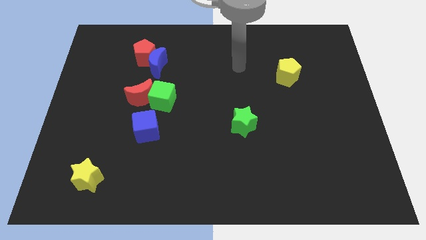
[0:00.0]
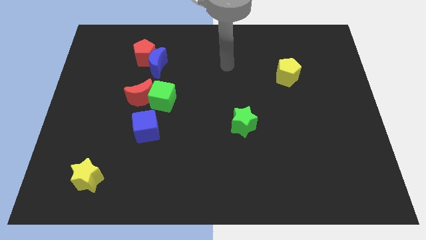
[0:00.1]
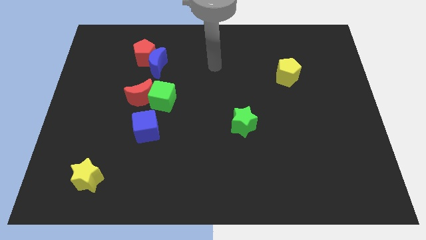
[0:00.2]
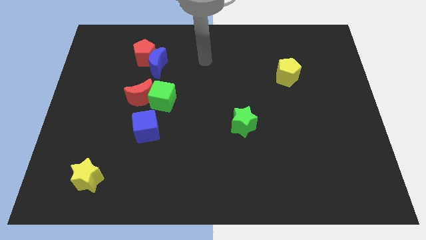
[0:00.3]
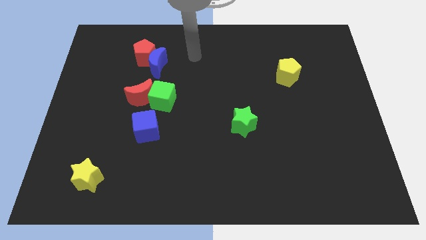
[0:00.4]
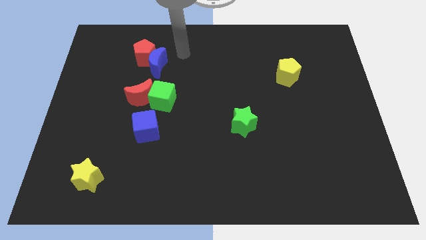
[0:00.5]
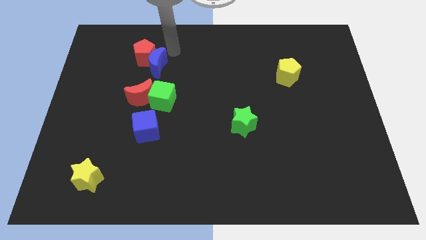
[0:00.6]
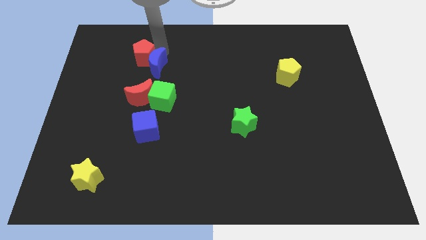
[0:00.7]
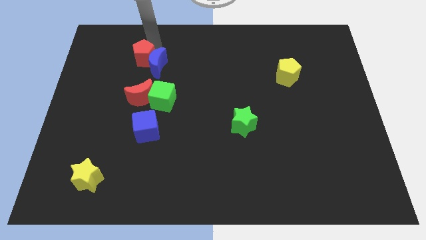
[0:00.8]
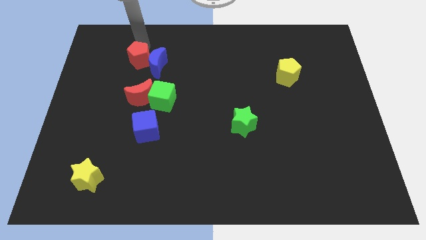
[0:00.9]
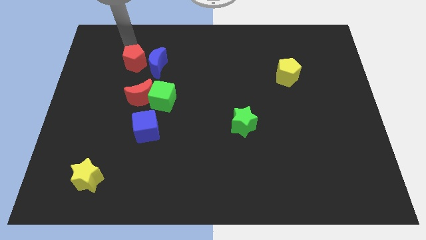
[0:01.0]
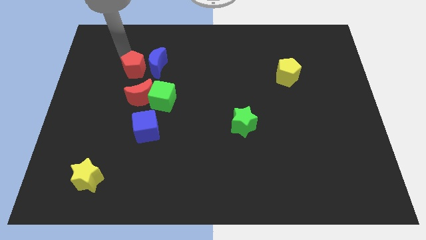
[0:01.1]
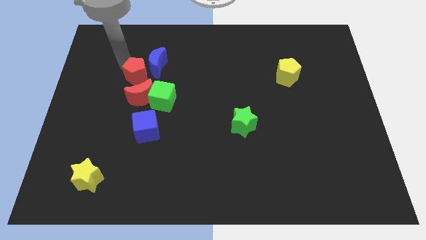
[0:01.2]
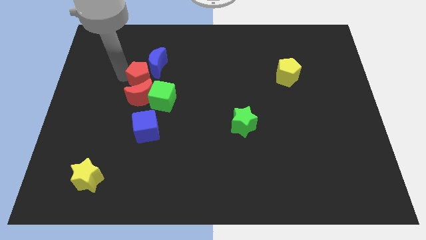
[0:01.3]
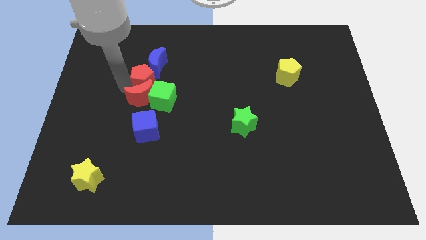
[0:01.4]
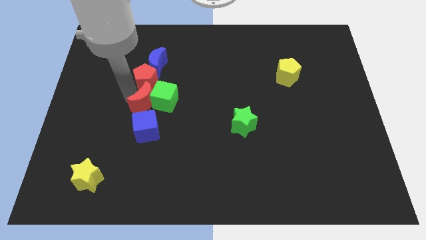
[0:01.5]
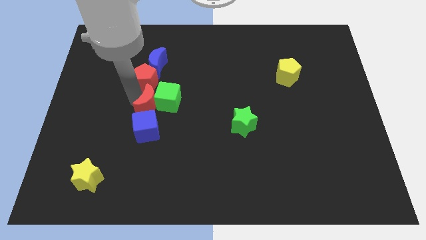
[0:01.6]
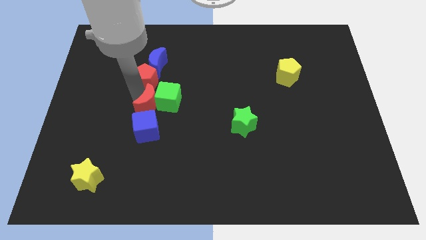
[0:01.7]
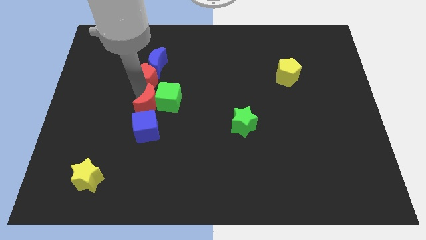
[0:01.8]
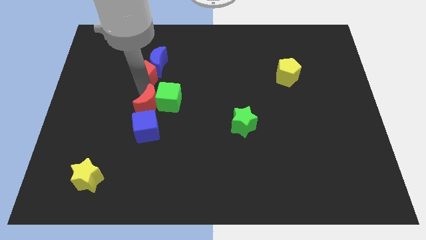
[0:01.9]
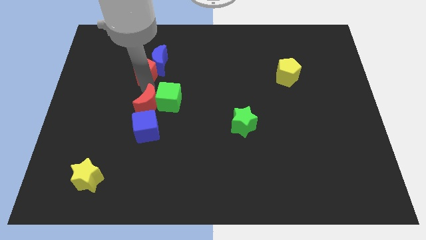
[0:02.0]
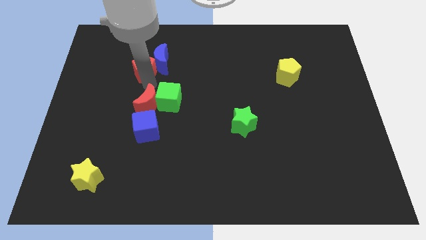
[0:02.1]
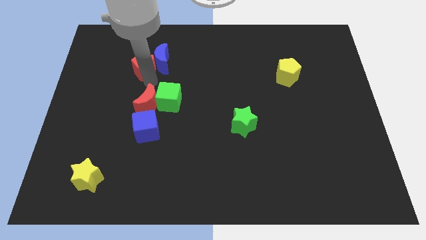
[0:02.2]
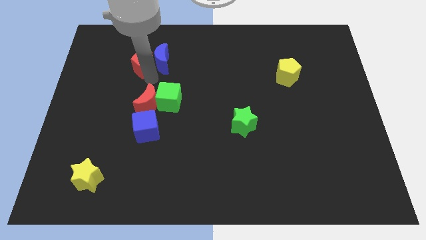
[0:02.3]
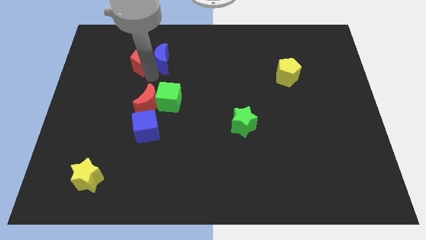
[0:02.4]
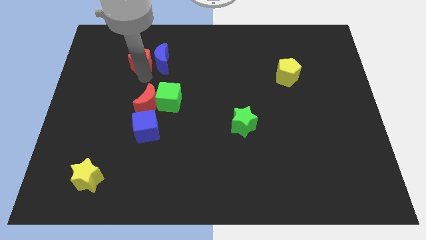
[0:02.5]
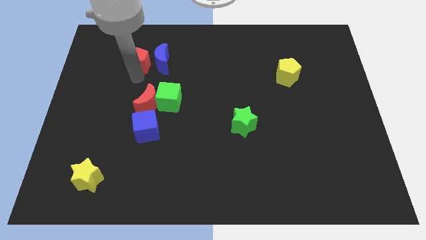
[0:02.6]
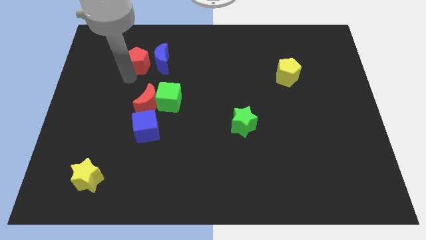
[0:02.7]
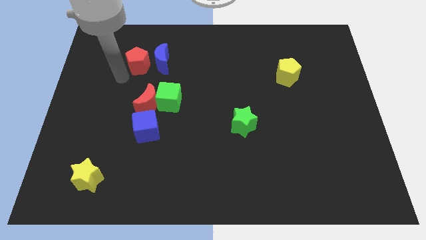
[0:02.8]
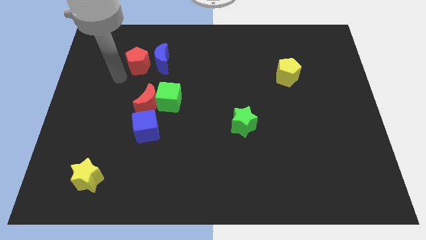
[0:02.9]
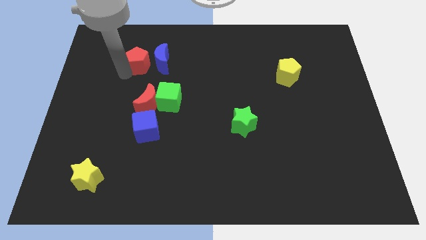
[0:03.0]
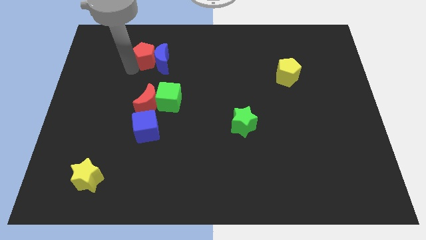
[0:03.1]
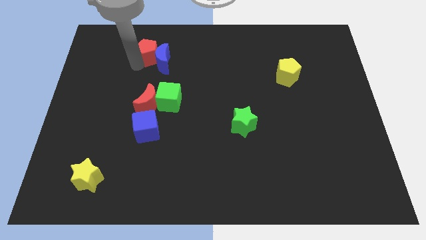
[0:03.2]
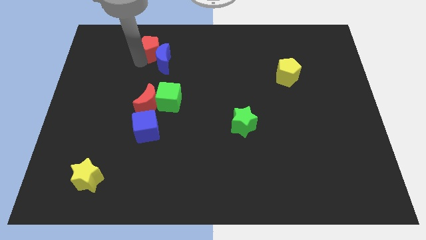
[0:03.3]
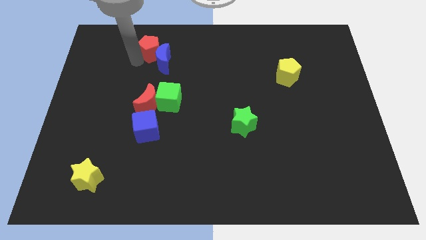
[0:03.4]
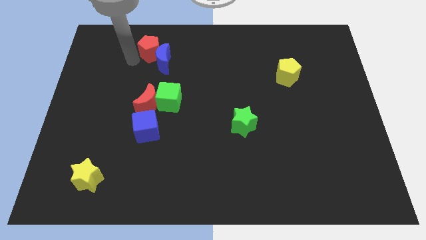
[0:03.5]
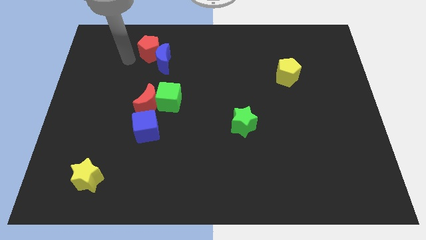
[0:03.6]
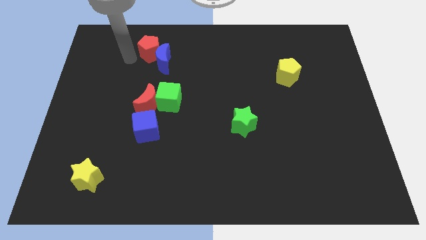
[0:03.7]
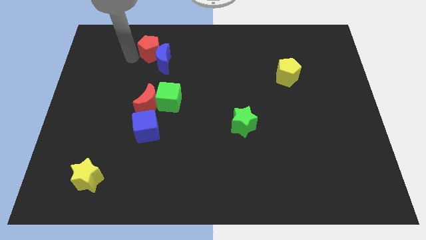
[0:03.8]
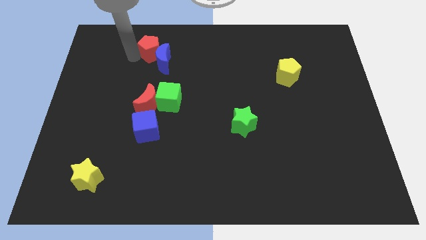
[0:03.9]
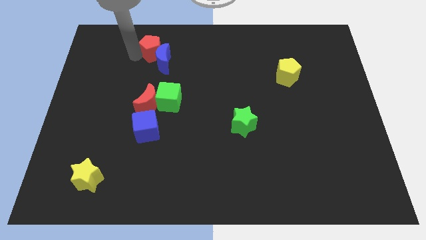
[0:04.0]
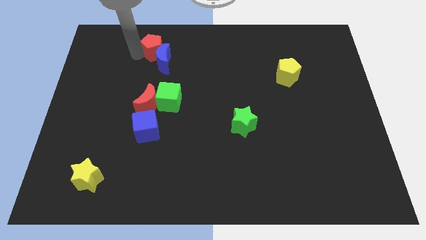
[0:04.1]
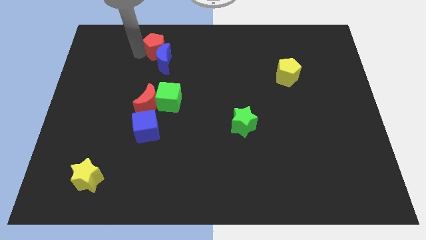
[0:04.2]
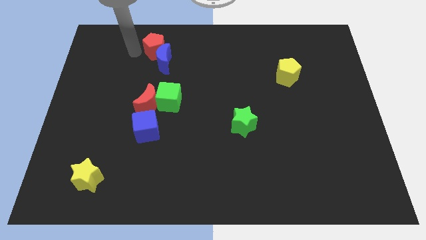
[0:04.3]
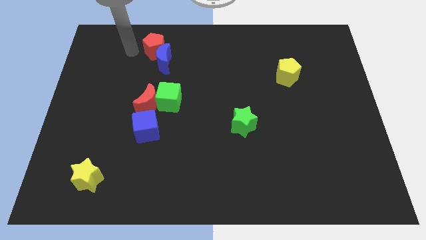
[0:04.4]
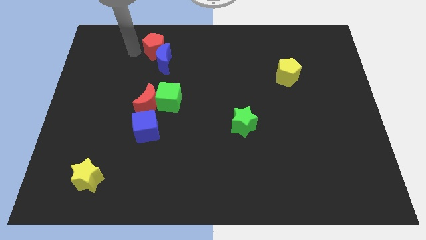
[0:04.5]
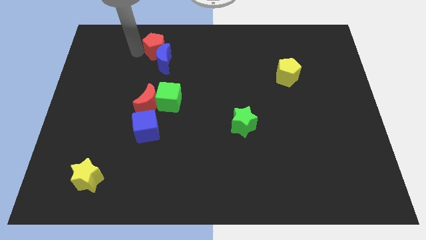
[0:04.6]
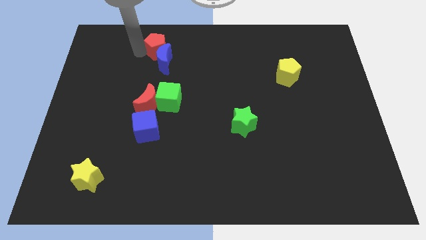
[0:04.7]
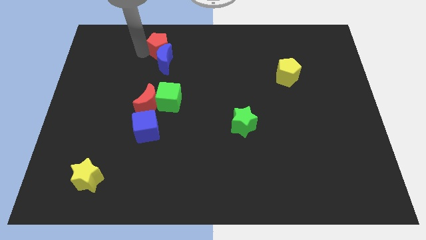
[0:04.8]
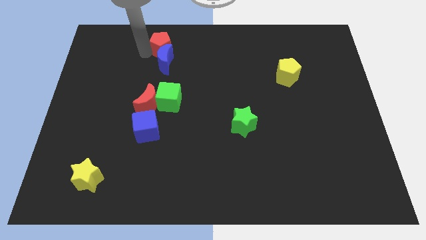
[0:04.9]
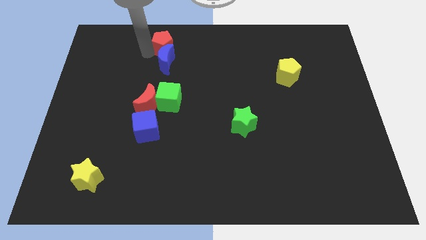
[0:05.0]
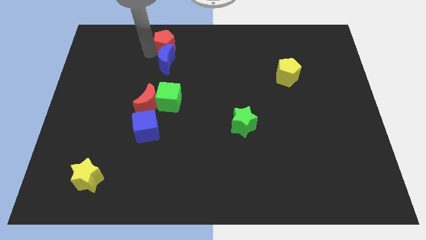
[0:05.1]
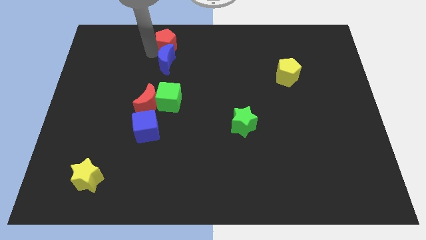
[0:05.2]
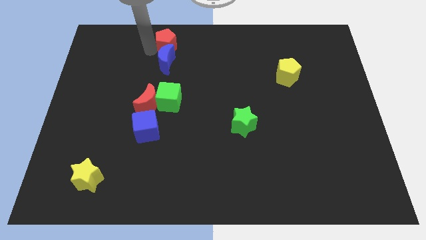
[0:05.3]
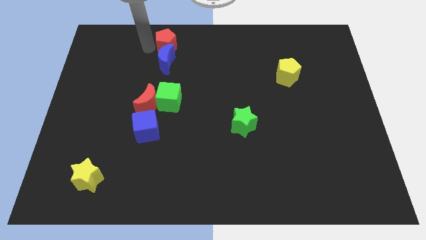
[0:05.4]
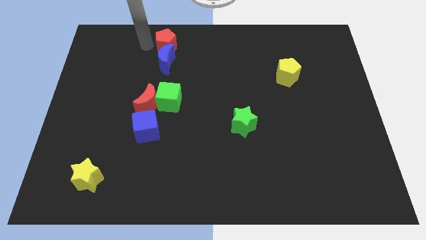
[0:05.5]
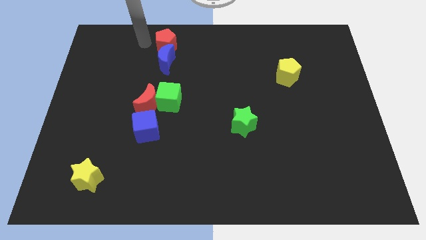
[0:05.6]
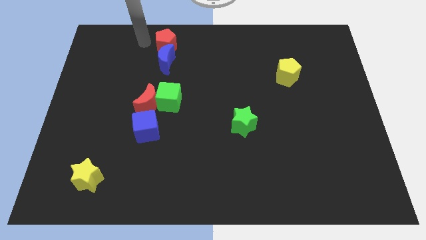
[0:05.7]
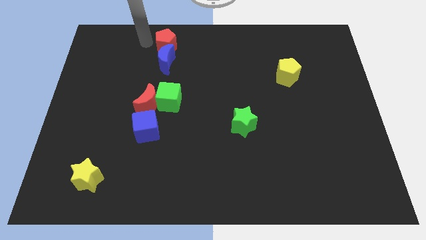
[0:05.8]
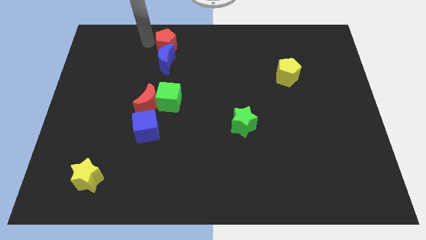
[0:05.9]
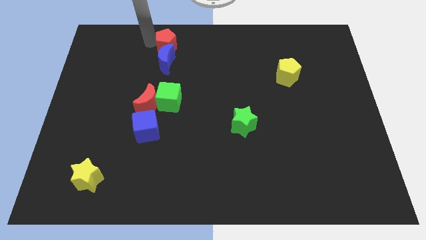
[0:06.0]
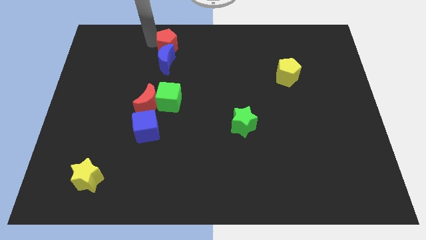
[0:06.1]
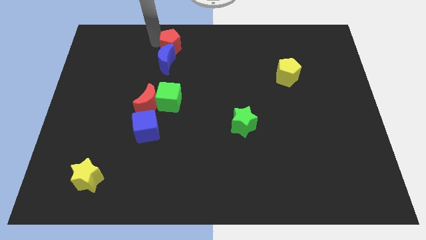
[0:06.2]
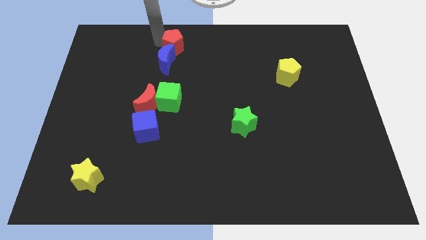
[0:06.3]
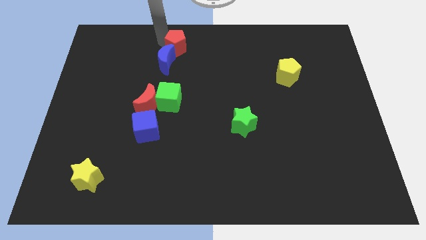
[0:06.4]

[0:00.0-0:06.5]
move the red pentagon to the top

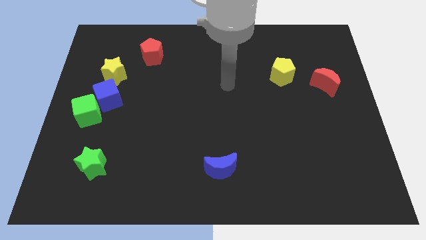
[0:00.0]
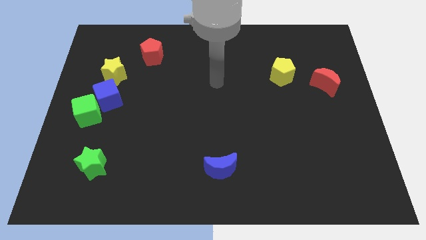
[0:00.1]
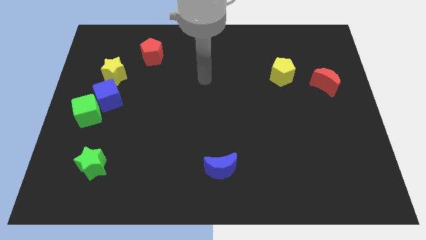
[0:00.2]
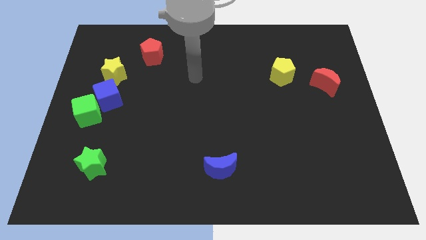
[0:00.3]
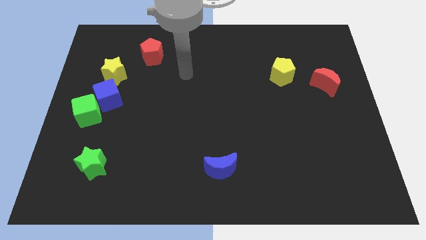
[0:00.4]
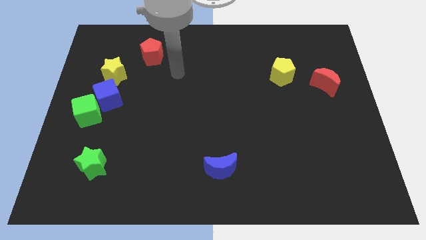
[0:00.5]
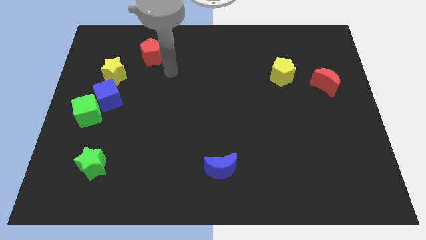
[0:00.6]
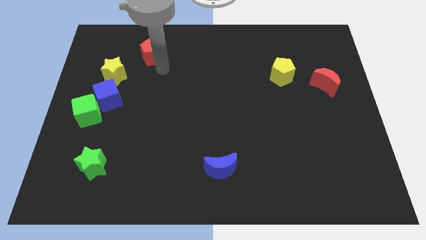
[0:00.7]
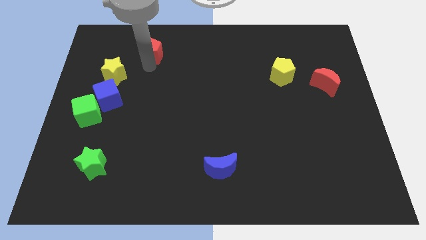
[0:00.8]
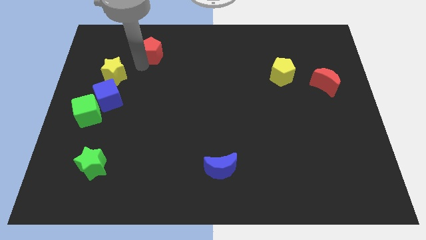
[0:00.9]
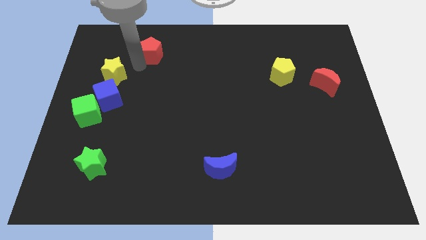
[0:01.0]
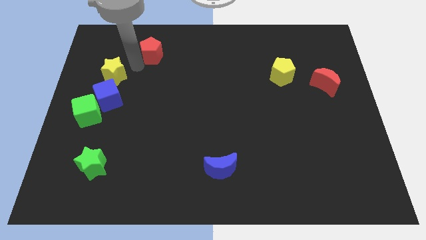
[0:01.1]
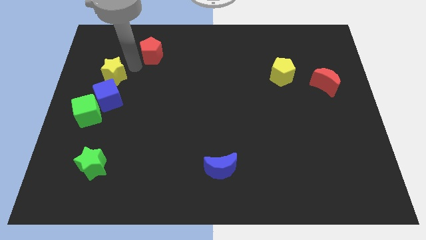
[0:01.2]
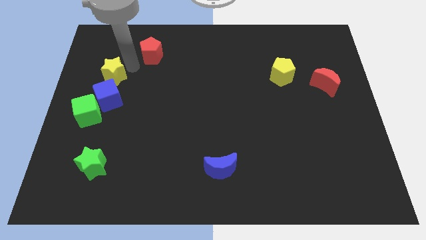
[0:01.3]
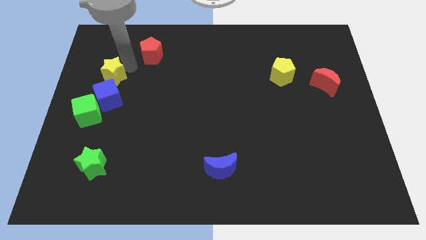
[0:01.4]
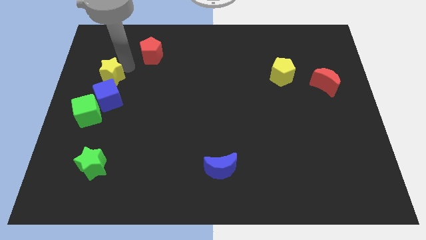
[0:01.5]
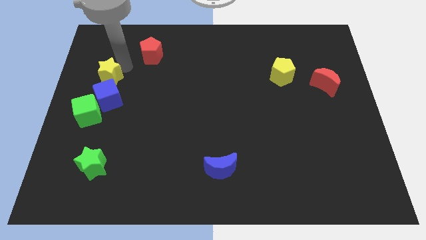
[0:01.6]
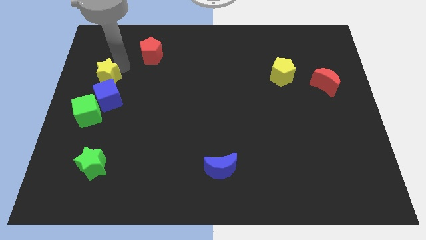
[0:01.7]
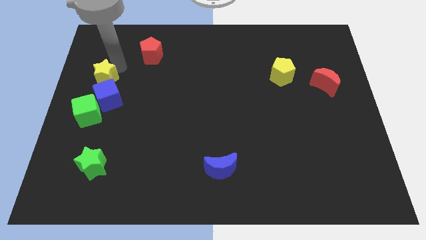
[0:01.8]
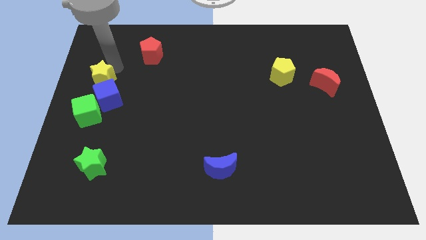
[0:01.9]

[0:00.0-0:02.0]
slide the yellow star to the center left
